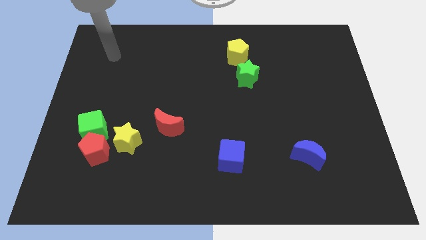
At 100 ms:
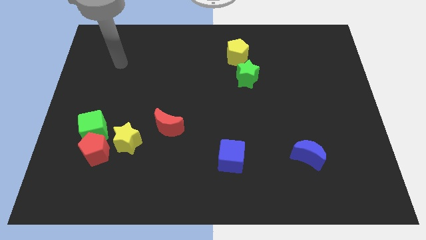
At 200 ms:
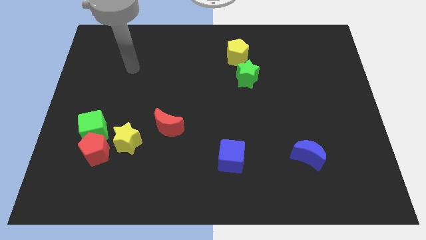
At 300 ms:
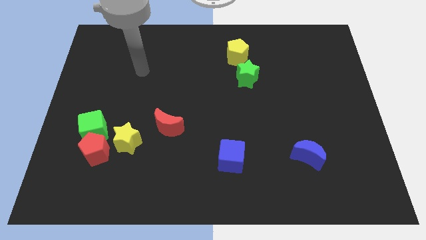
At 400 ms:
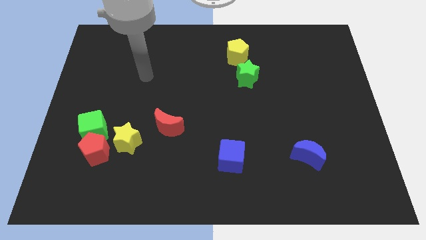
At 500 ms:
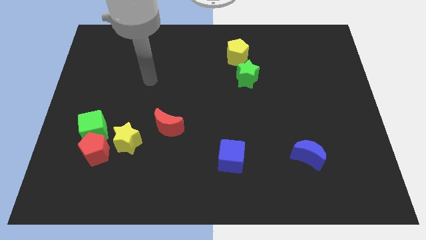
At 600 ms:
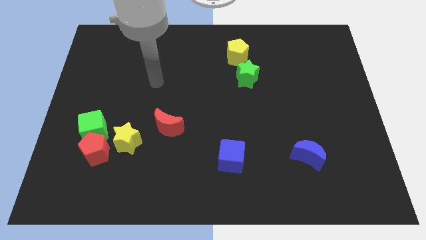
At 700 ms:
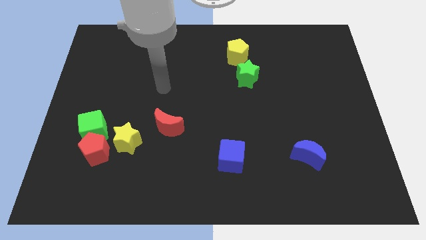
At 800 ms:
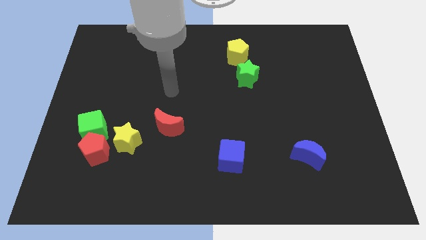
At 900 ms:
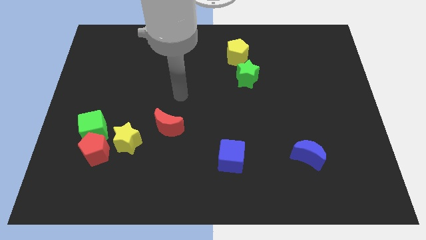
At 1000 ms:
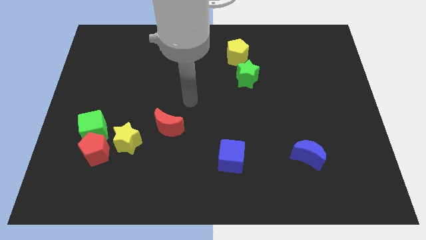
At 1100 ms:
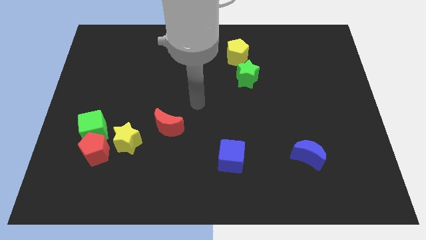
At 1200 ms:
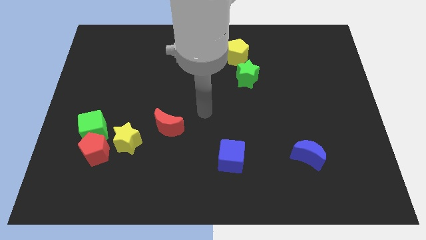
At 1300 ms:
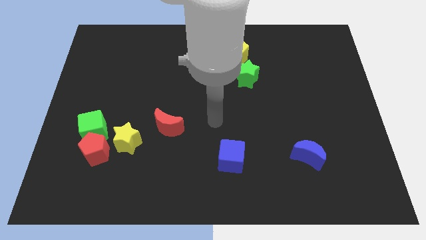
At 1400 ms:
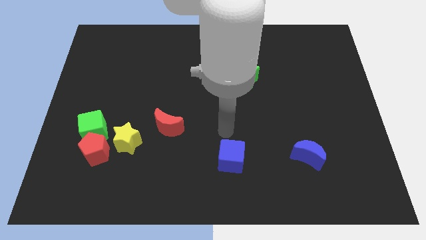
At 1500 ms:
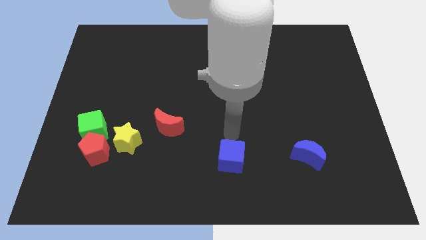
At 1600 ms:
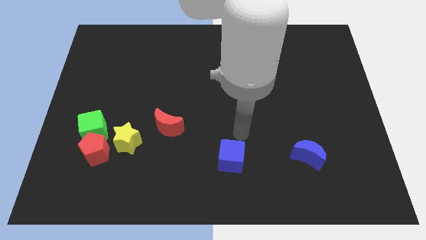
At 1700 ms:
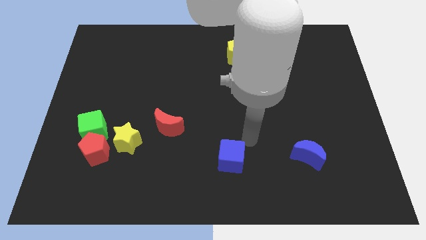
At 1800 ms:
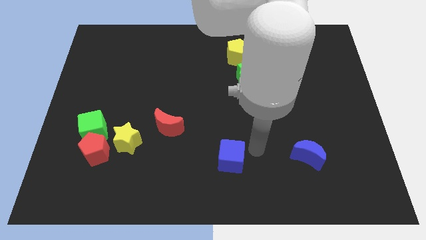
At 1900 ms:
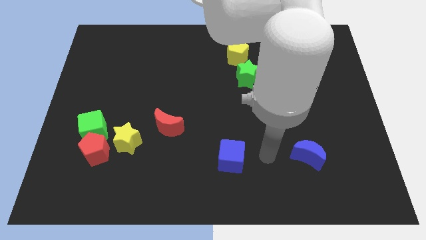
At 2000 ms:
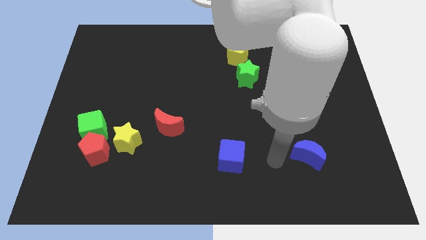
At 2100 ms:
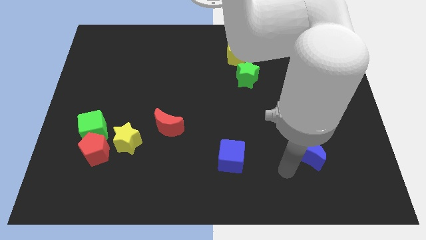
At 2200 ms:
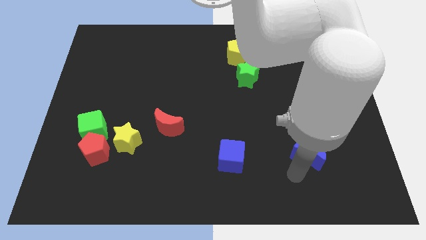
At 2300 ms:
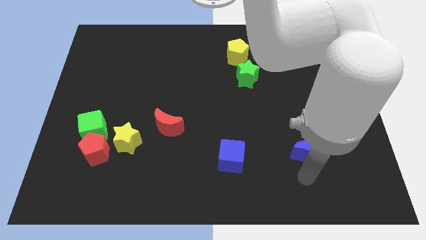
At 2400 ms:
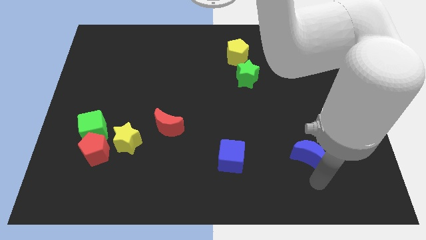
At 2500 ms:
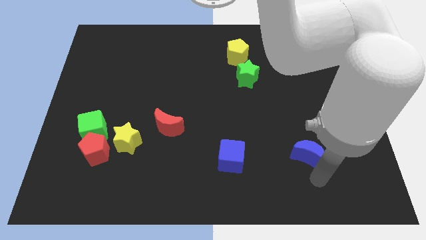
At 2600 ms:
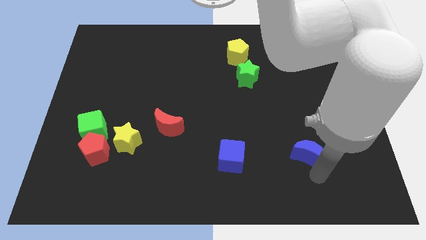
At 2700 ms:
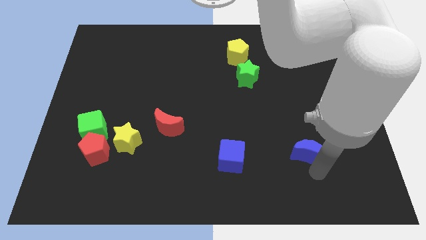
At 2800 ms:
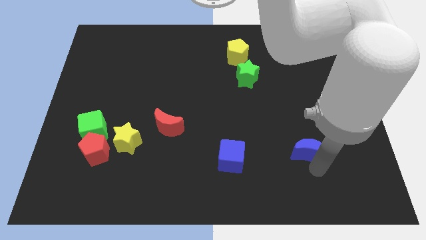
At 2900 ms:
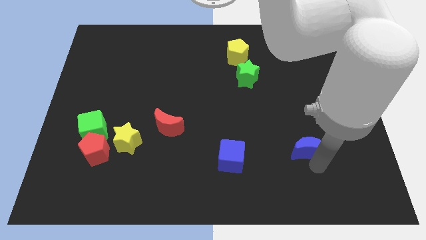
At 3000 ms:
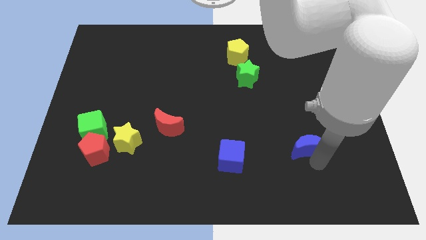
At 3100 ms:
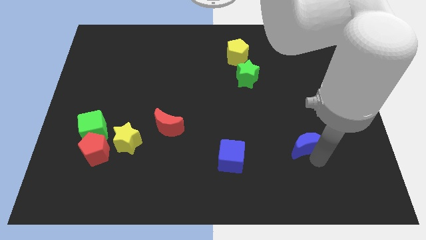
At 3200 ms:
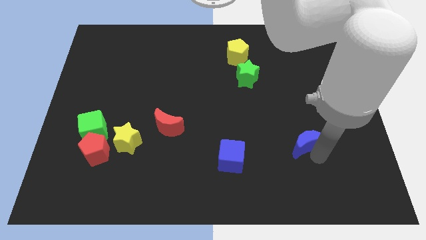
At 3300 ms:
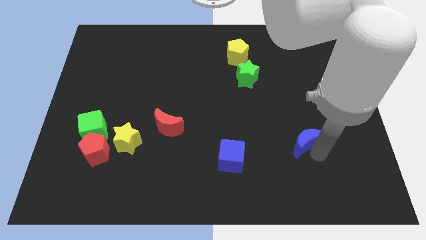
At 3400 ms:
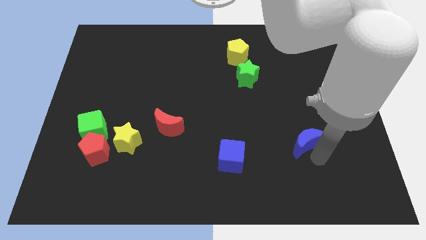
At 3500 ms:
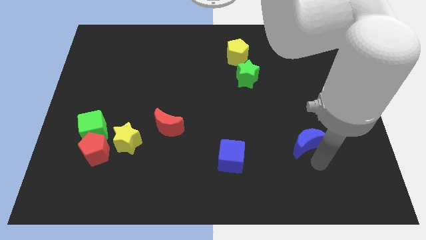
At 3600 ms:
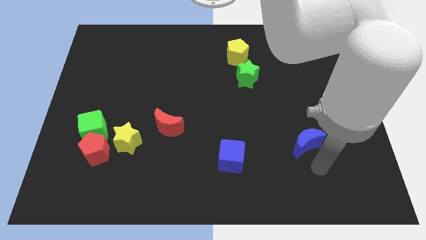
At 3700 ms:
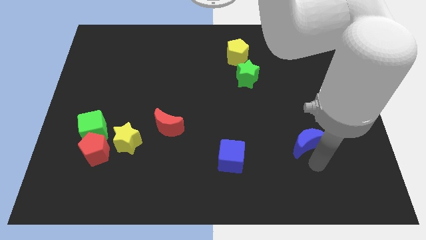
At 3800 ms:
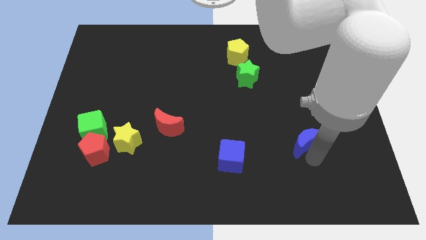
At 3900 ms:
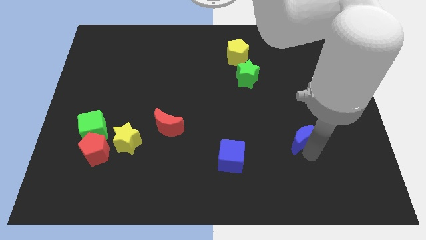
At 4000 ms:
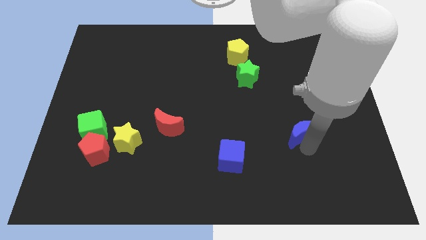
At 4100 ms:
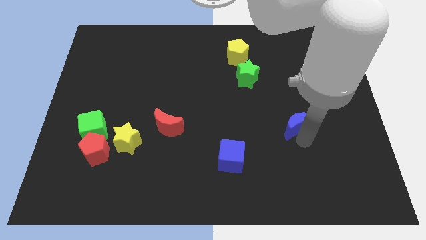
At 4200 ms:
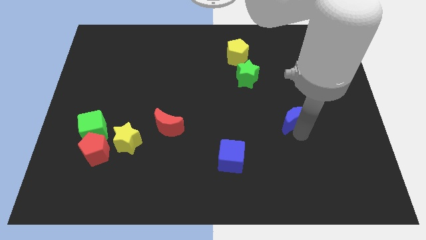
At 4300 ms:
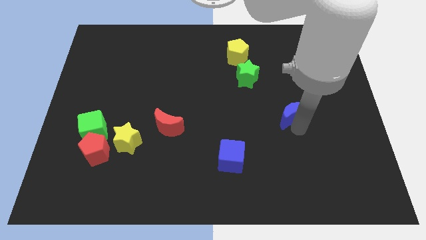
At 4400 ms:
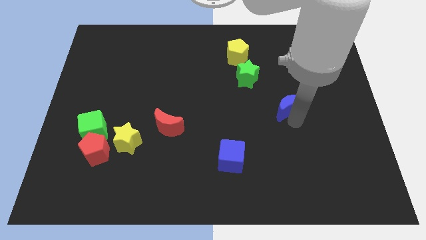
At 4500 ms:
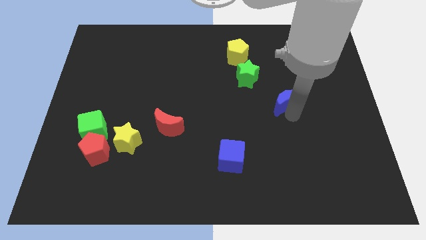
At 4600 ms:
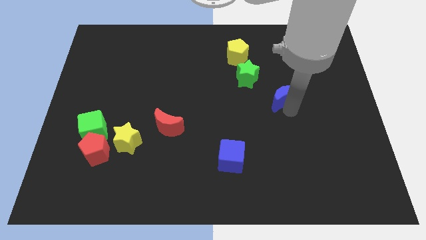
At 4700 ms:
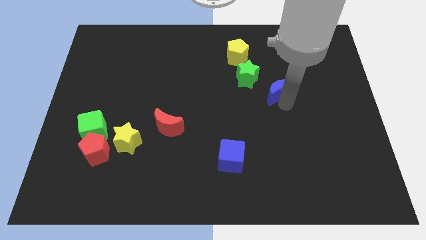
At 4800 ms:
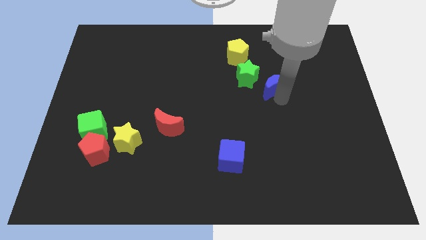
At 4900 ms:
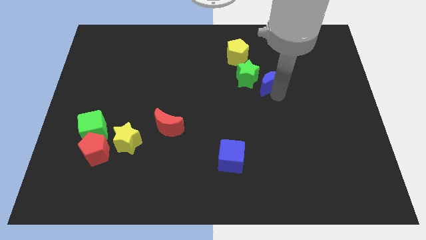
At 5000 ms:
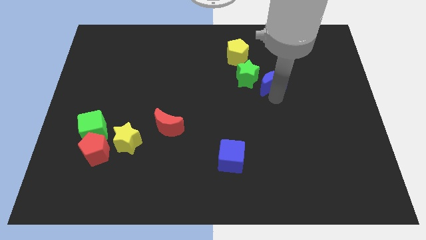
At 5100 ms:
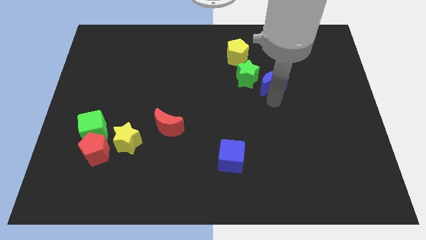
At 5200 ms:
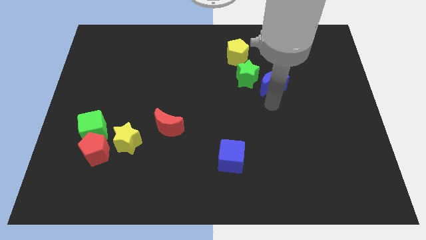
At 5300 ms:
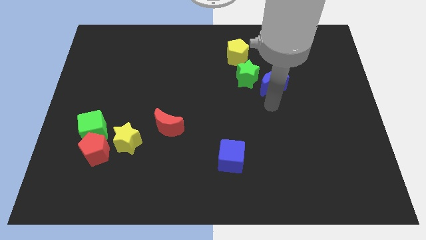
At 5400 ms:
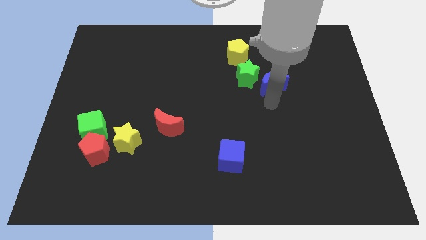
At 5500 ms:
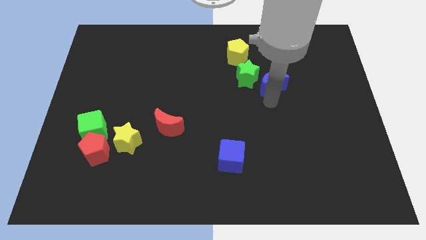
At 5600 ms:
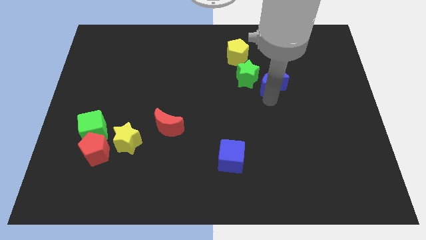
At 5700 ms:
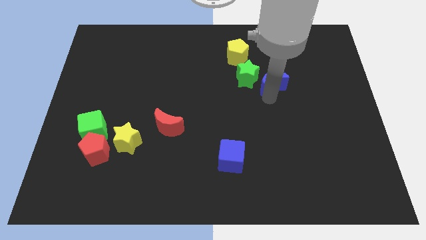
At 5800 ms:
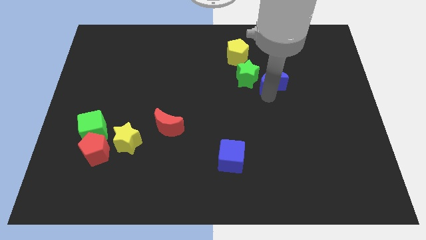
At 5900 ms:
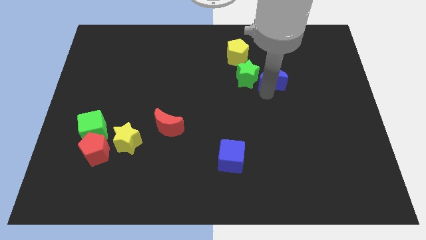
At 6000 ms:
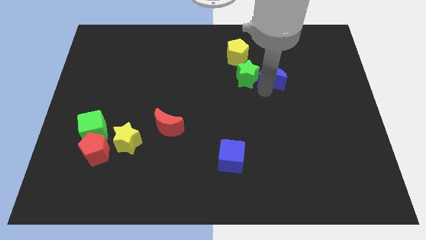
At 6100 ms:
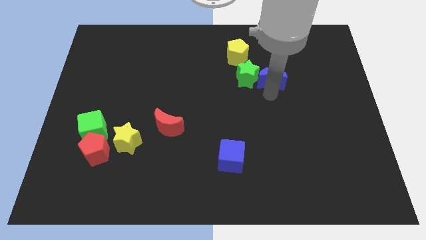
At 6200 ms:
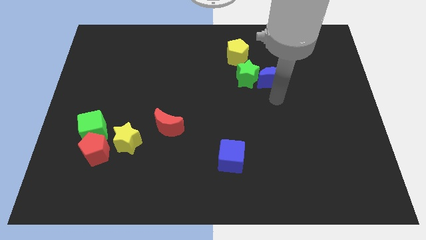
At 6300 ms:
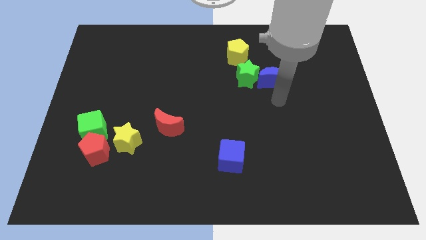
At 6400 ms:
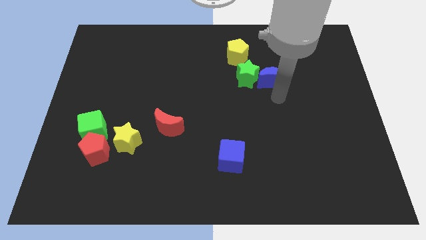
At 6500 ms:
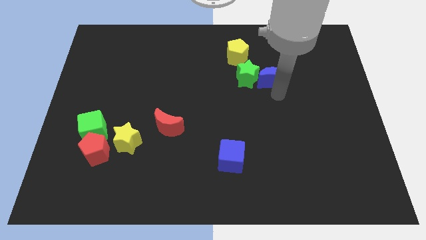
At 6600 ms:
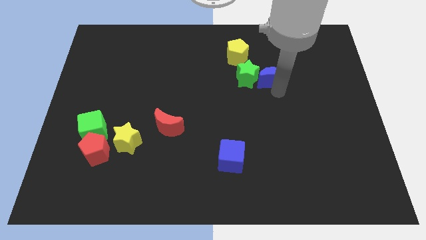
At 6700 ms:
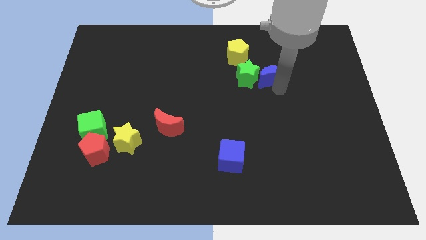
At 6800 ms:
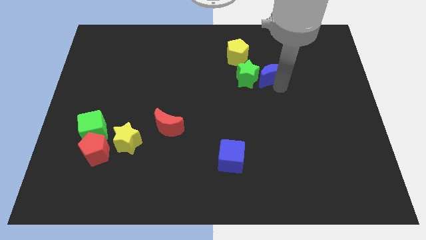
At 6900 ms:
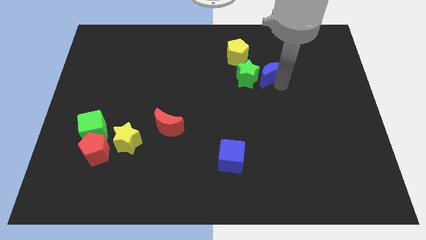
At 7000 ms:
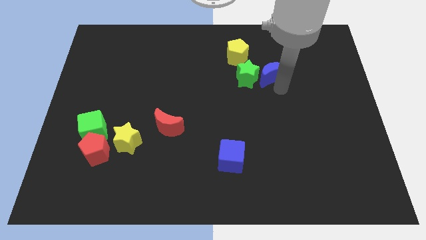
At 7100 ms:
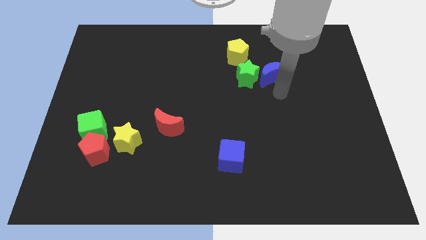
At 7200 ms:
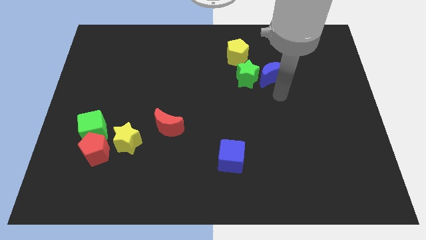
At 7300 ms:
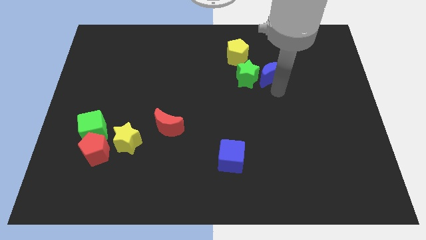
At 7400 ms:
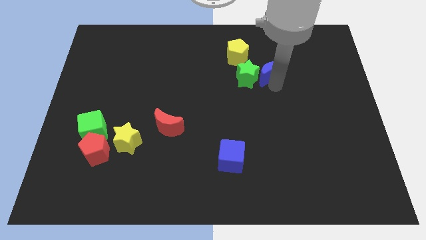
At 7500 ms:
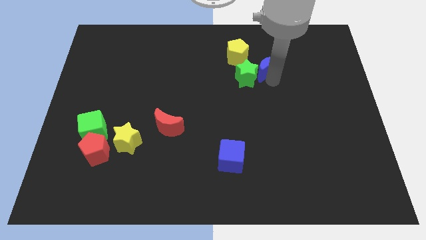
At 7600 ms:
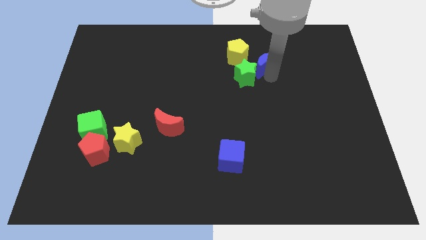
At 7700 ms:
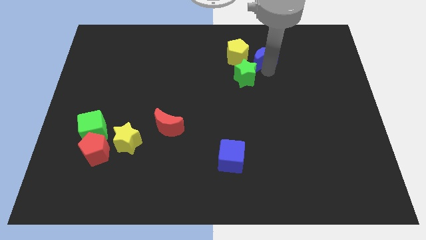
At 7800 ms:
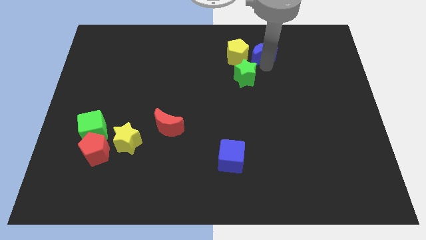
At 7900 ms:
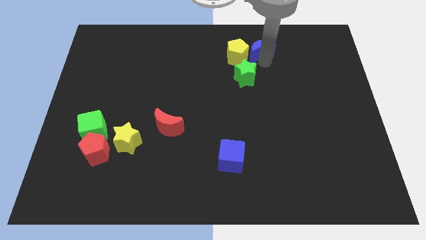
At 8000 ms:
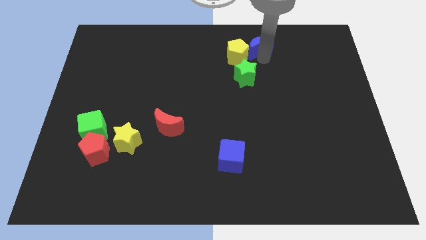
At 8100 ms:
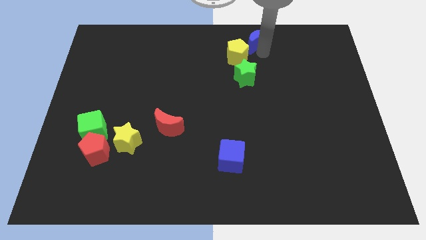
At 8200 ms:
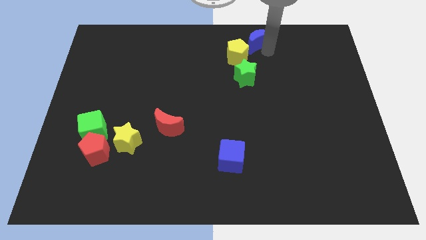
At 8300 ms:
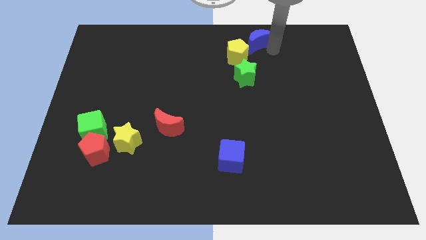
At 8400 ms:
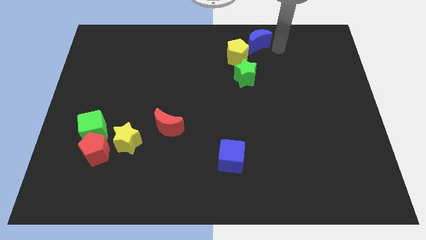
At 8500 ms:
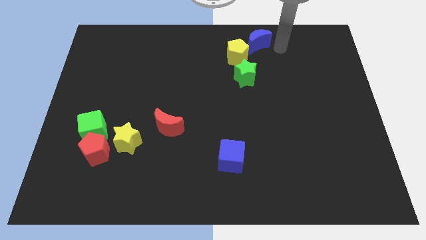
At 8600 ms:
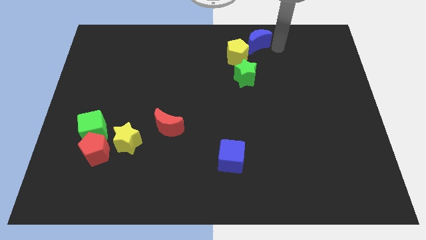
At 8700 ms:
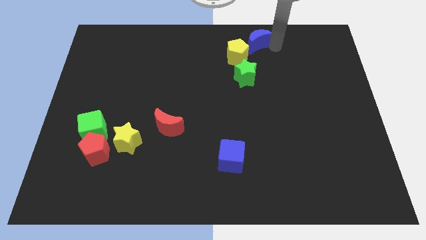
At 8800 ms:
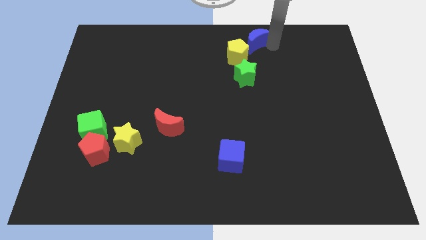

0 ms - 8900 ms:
move the blue moon to the top
